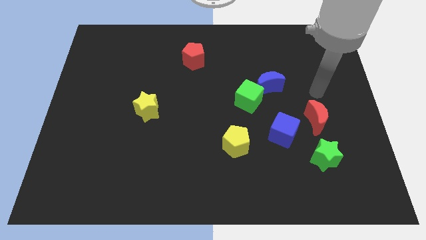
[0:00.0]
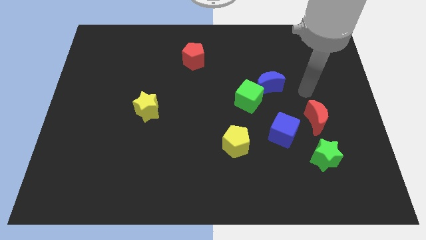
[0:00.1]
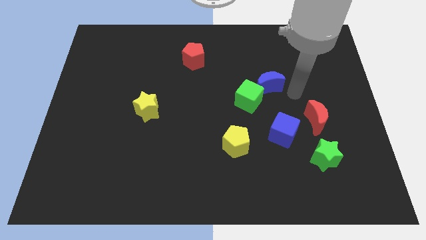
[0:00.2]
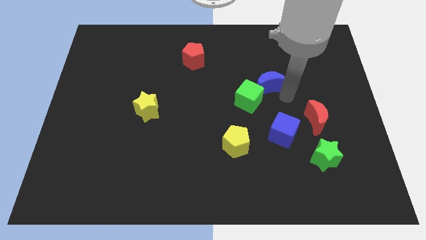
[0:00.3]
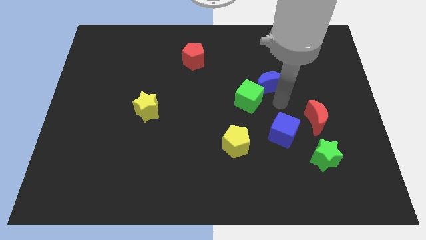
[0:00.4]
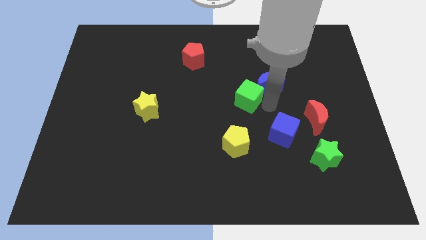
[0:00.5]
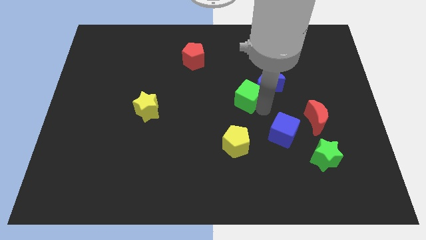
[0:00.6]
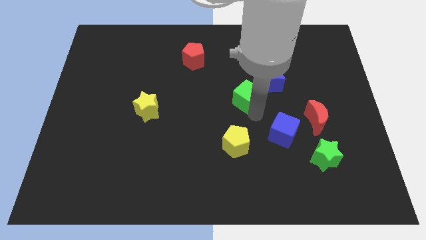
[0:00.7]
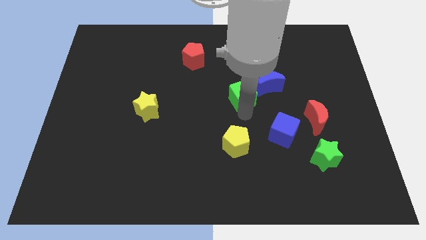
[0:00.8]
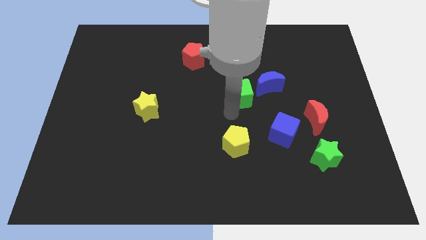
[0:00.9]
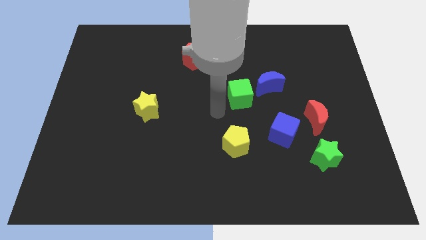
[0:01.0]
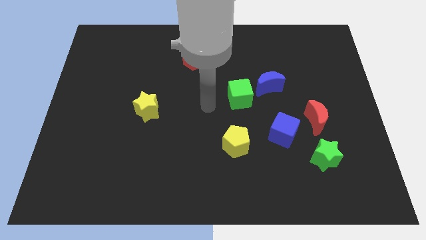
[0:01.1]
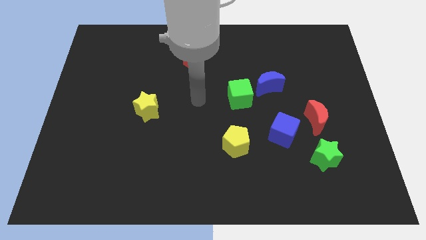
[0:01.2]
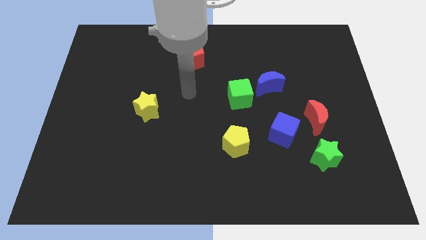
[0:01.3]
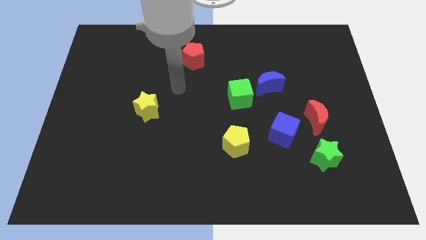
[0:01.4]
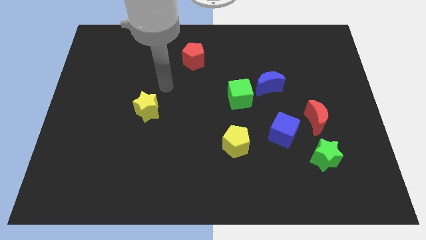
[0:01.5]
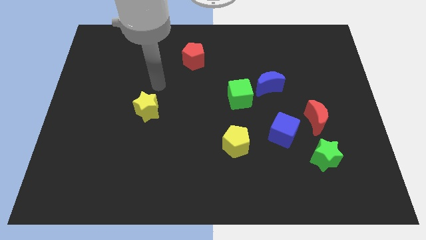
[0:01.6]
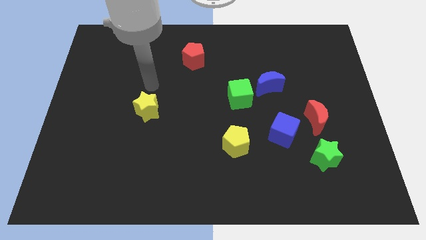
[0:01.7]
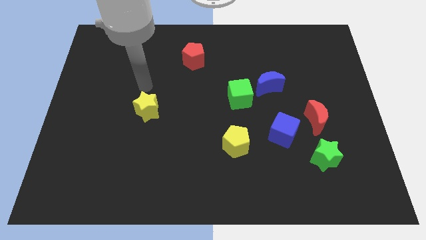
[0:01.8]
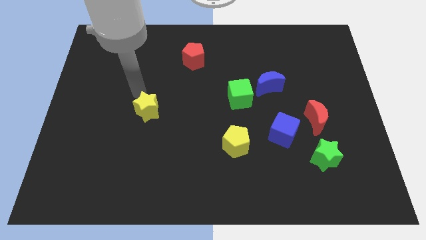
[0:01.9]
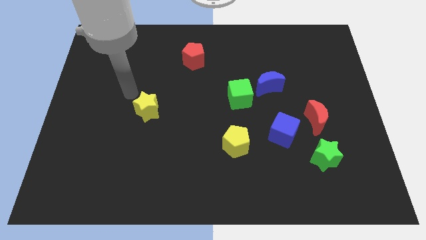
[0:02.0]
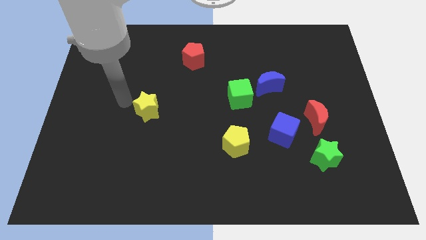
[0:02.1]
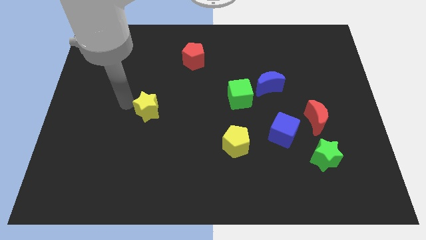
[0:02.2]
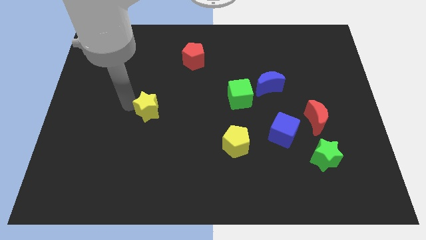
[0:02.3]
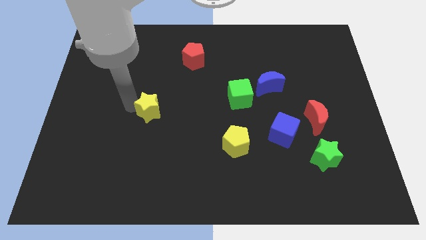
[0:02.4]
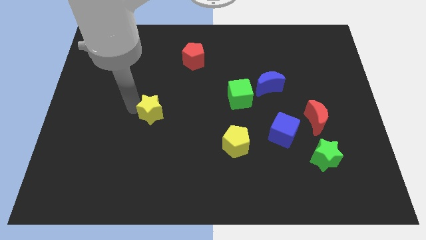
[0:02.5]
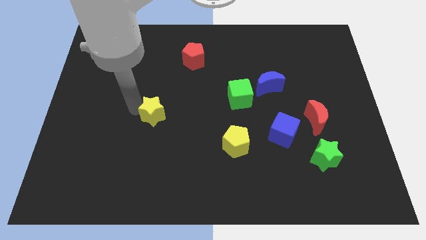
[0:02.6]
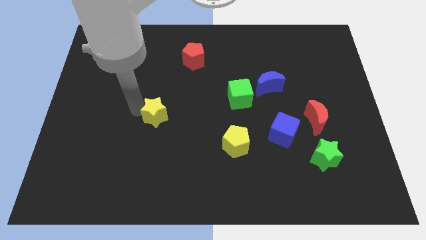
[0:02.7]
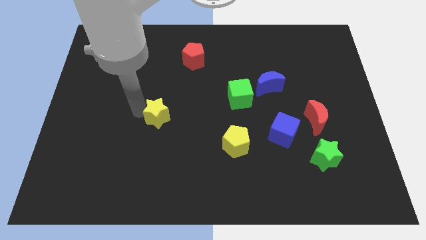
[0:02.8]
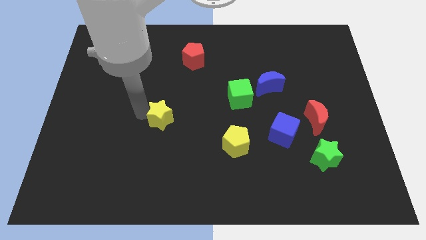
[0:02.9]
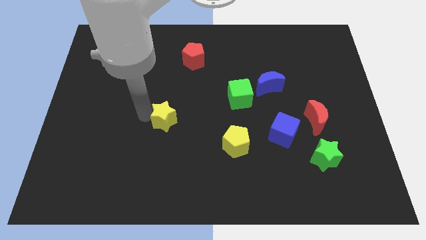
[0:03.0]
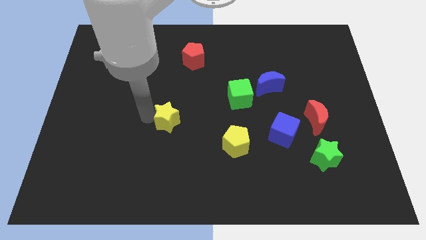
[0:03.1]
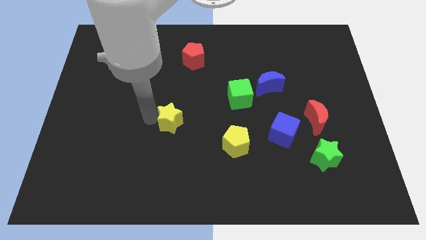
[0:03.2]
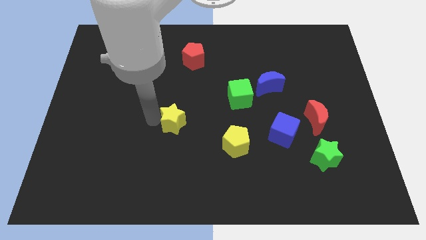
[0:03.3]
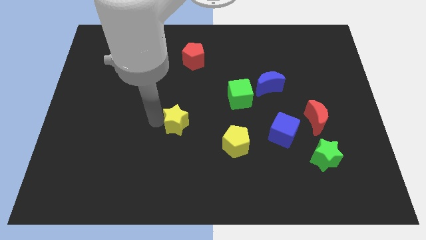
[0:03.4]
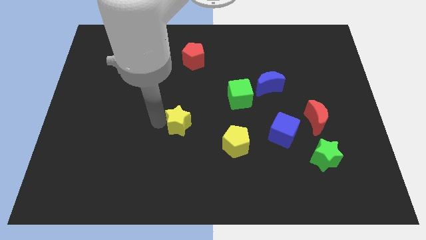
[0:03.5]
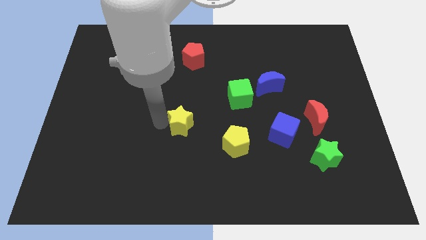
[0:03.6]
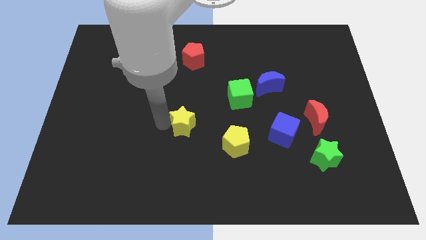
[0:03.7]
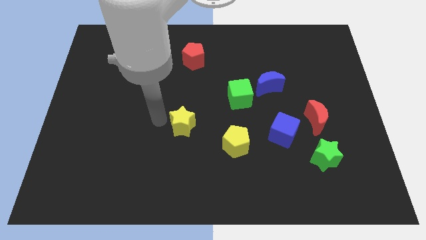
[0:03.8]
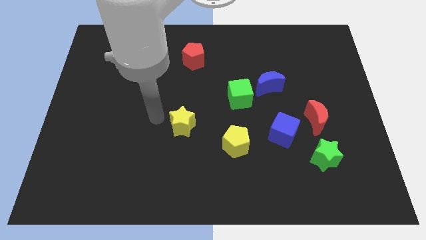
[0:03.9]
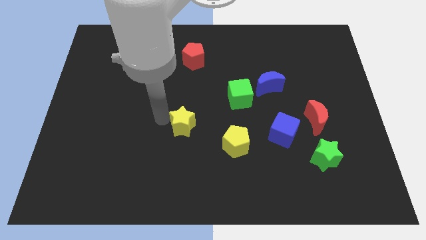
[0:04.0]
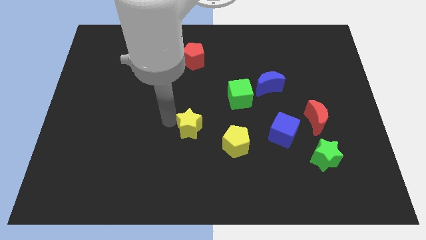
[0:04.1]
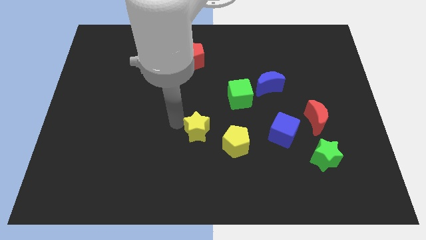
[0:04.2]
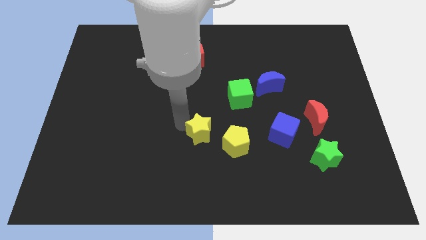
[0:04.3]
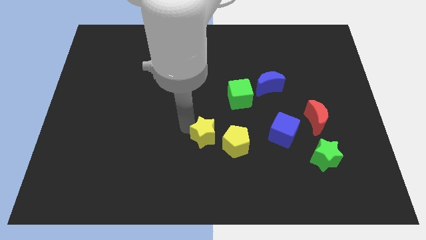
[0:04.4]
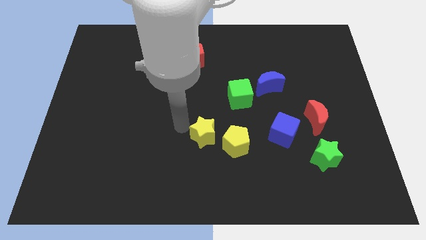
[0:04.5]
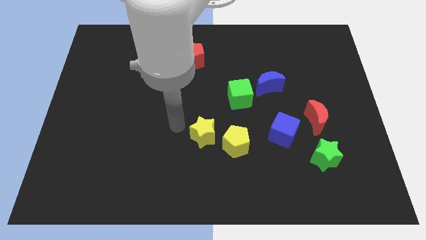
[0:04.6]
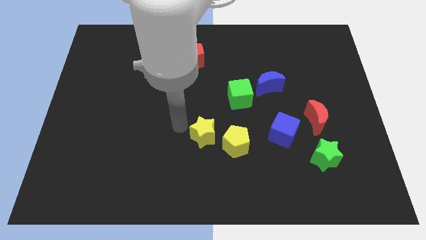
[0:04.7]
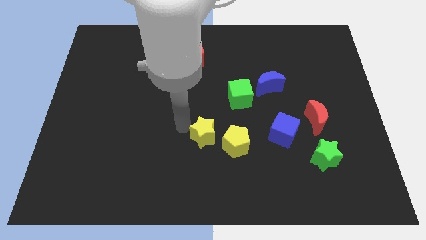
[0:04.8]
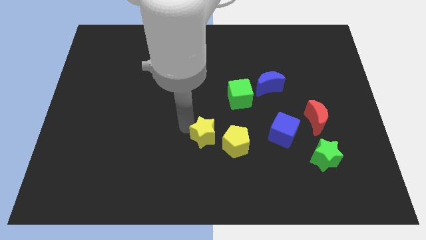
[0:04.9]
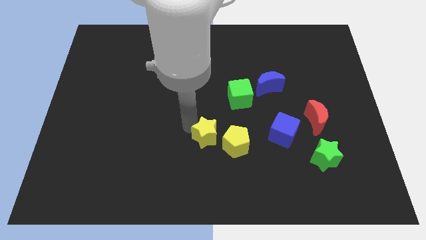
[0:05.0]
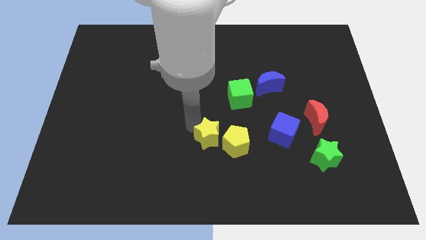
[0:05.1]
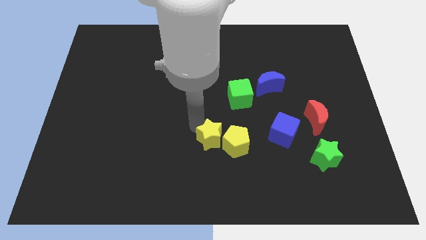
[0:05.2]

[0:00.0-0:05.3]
push the yellow star towards the yellow pentagon

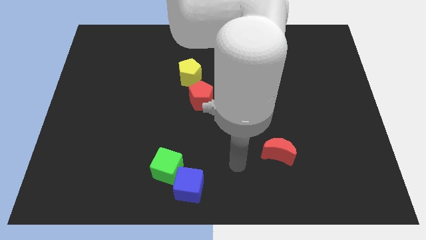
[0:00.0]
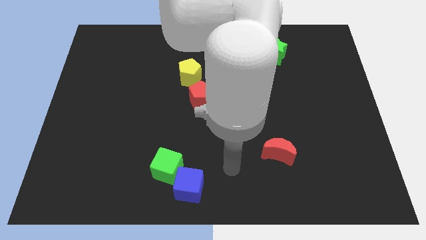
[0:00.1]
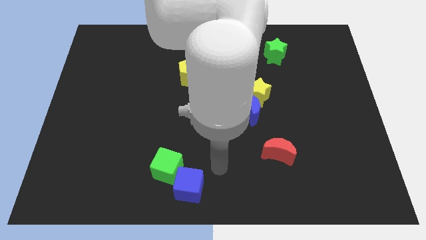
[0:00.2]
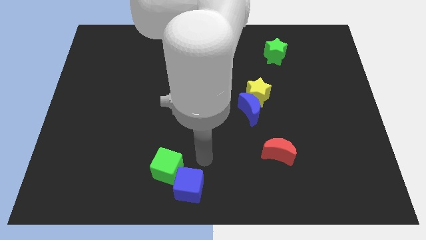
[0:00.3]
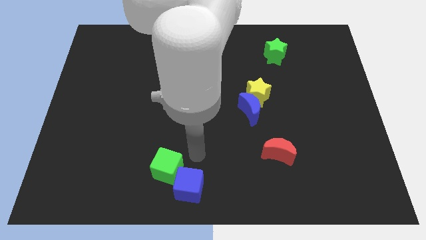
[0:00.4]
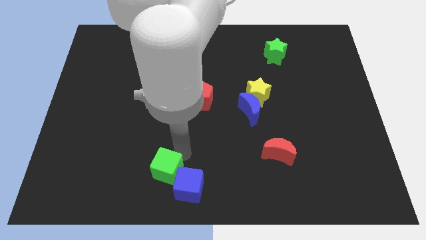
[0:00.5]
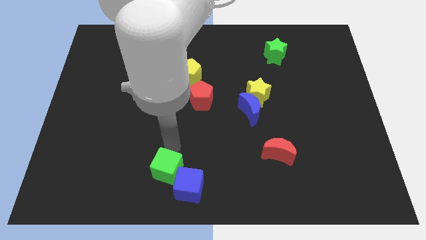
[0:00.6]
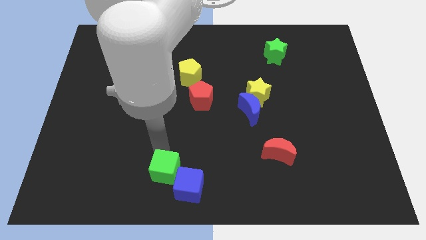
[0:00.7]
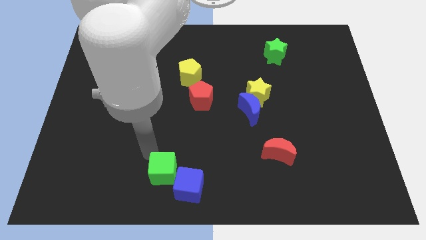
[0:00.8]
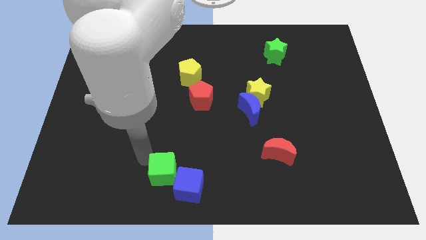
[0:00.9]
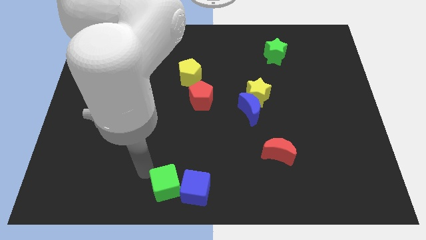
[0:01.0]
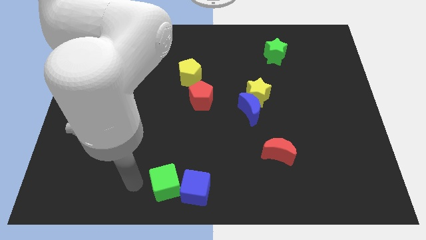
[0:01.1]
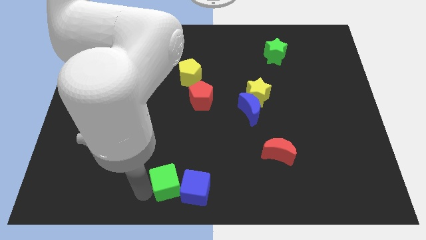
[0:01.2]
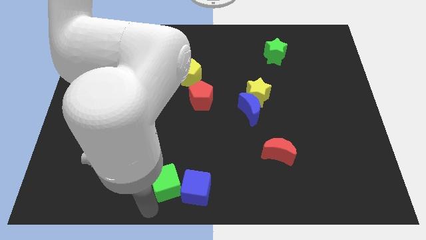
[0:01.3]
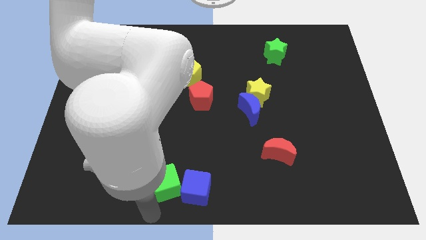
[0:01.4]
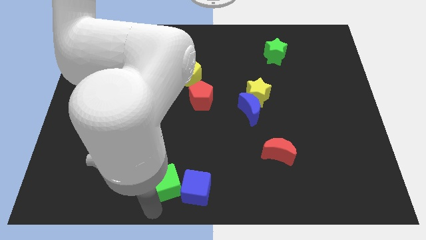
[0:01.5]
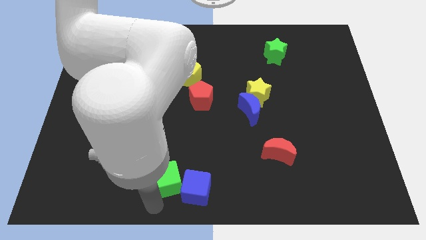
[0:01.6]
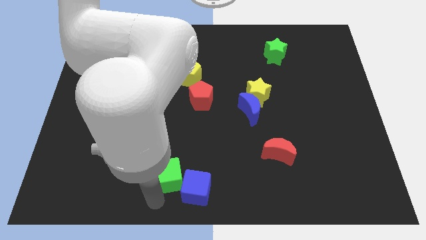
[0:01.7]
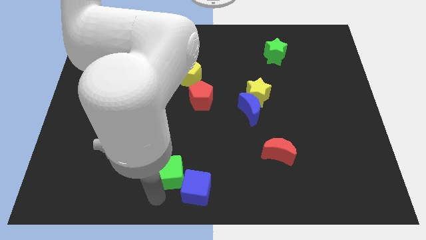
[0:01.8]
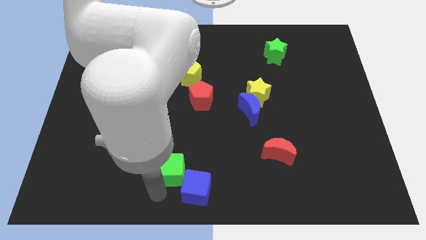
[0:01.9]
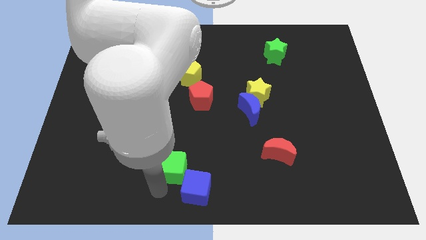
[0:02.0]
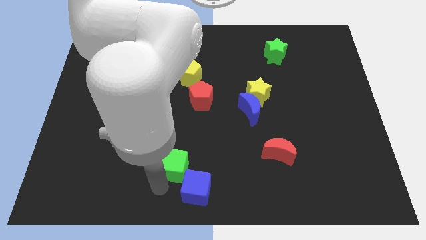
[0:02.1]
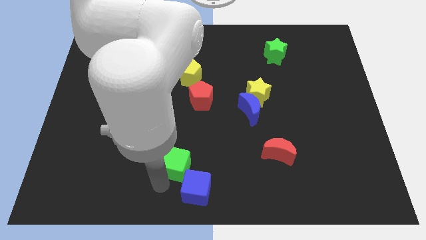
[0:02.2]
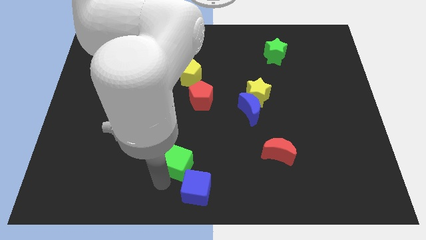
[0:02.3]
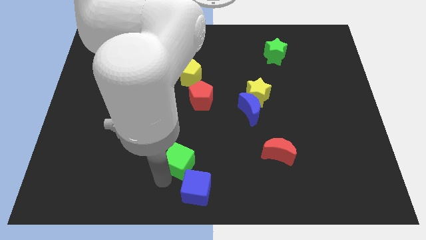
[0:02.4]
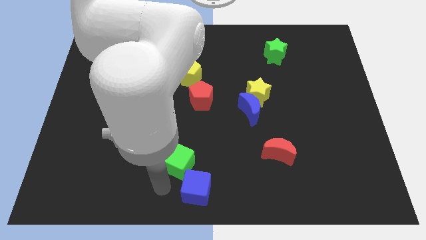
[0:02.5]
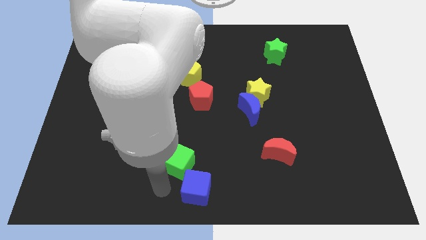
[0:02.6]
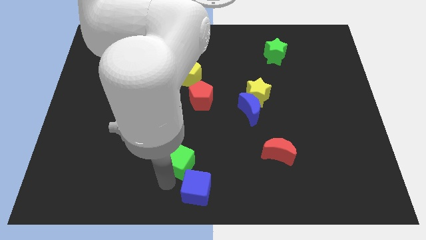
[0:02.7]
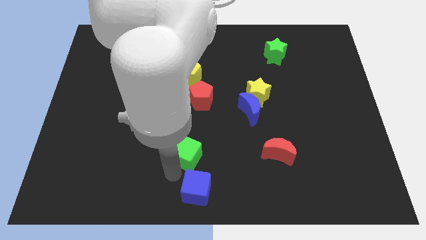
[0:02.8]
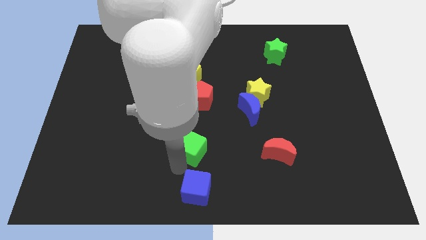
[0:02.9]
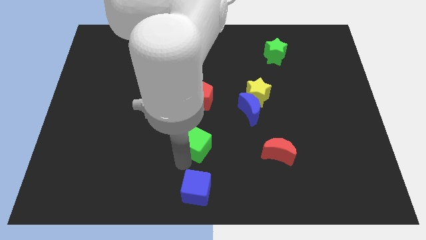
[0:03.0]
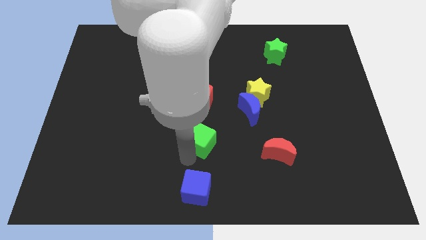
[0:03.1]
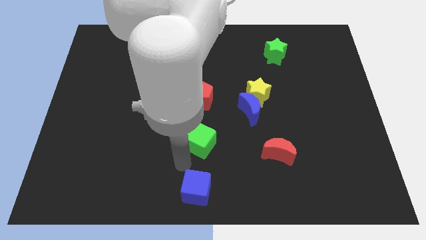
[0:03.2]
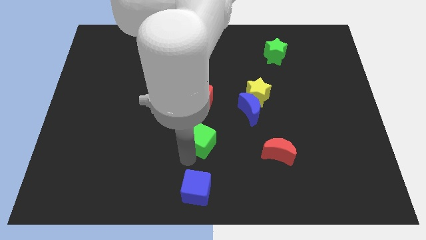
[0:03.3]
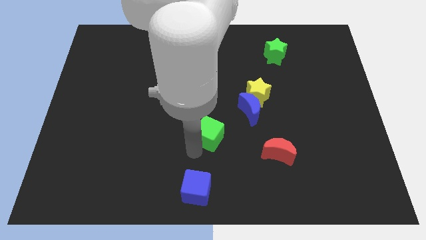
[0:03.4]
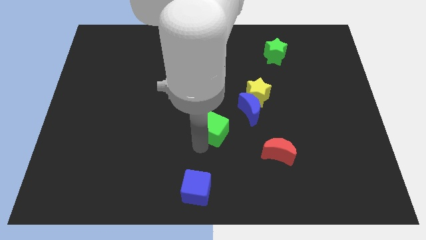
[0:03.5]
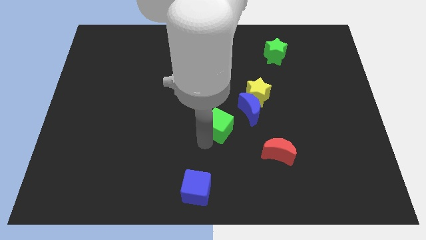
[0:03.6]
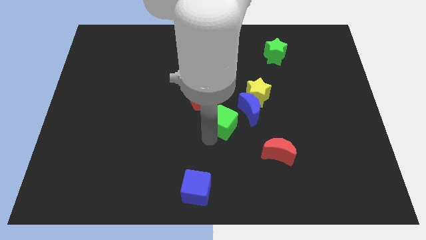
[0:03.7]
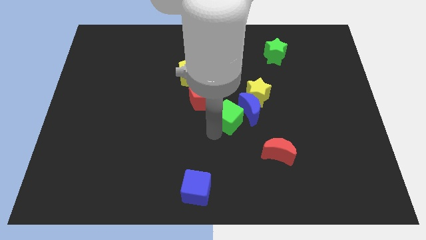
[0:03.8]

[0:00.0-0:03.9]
push the green cube close to the blue moon
